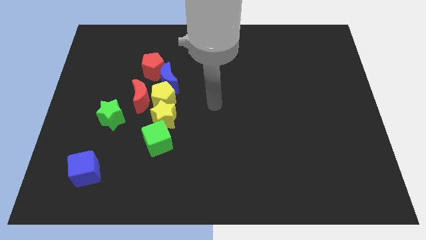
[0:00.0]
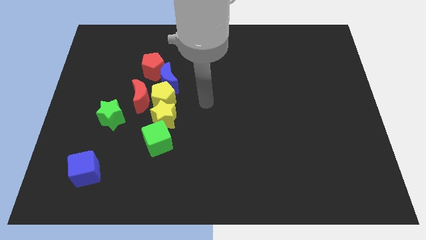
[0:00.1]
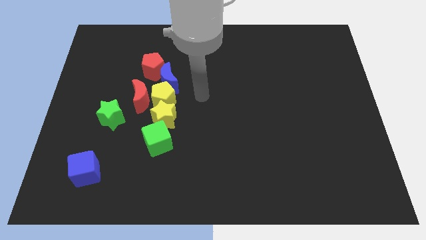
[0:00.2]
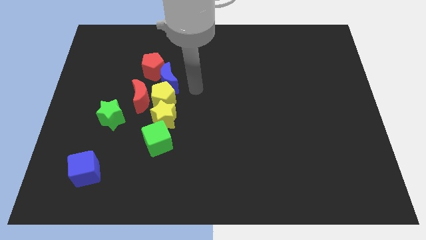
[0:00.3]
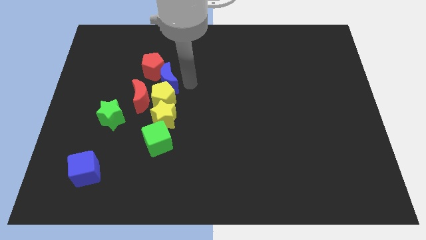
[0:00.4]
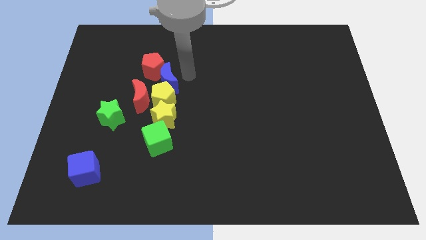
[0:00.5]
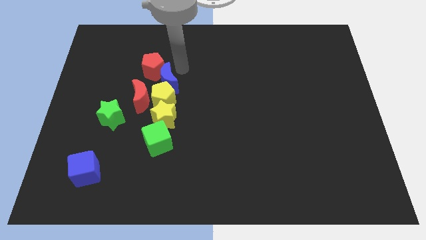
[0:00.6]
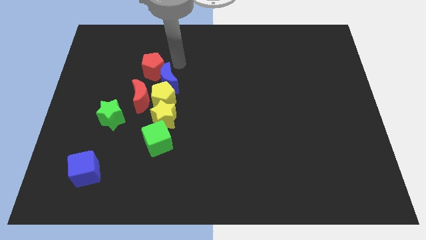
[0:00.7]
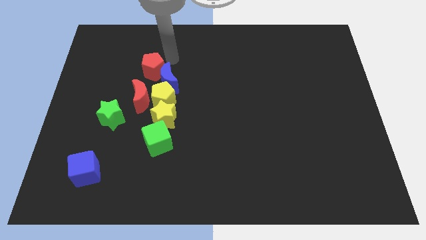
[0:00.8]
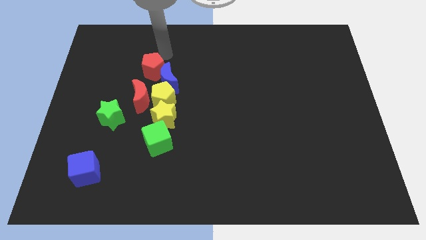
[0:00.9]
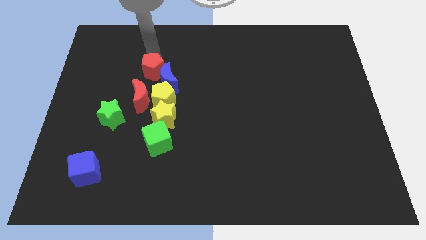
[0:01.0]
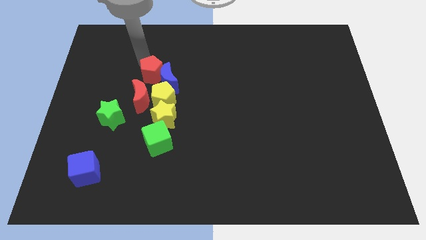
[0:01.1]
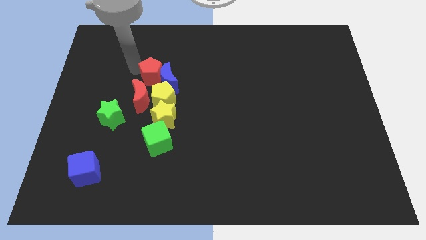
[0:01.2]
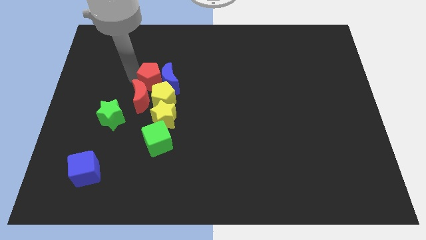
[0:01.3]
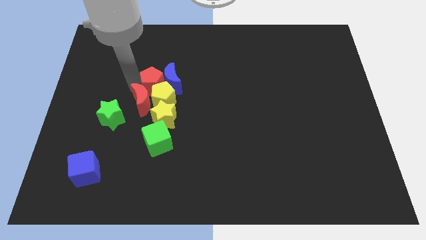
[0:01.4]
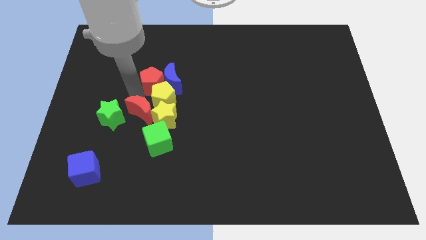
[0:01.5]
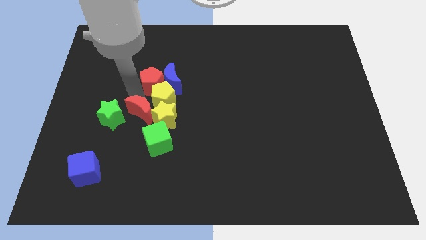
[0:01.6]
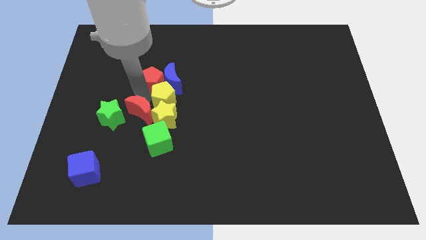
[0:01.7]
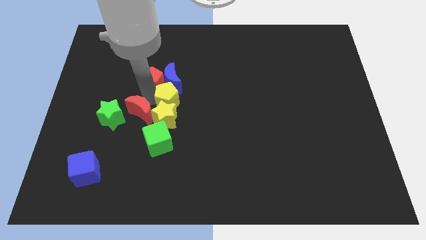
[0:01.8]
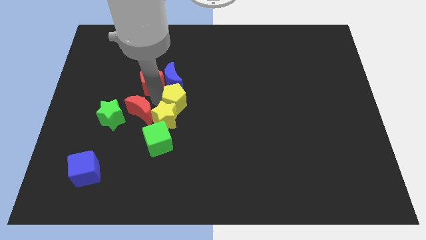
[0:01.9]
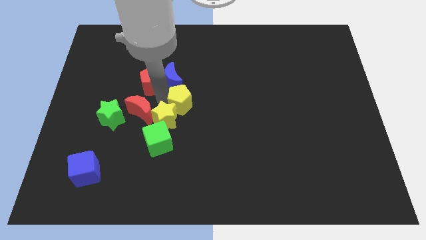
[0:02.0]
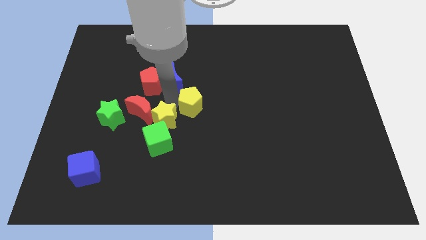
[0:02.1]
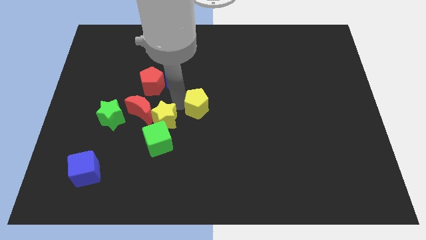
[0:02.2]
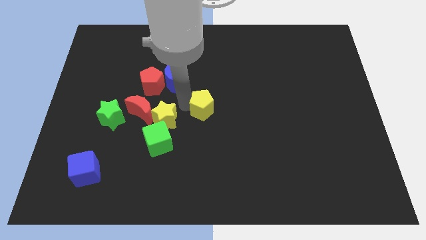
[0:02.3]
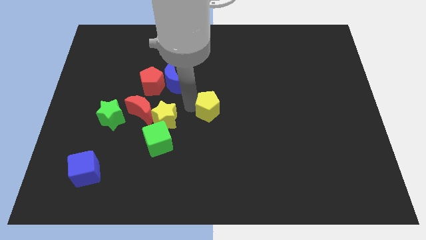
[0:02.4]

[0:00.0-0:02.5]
move the yellow pentagon away from the red moon, blue moon, and yellow star

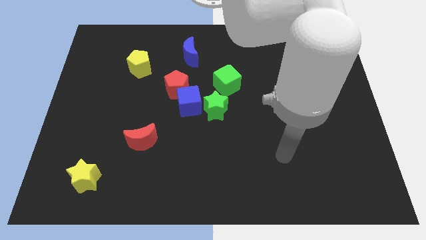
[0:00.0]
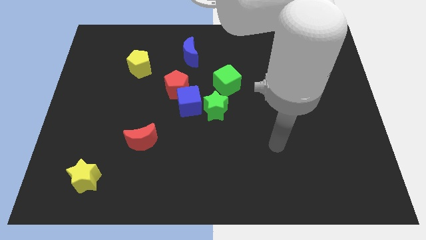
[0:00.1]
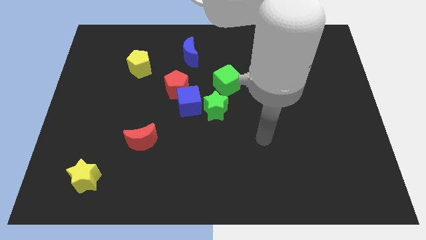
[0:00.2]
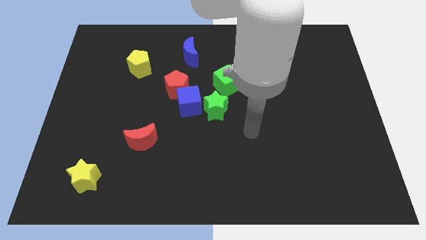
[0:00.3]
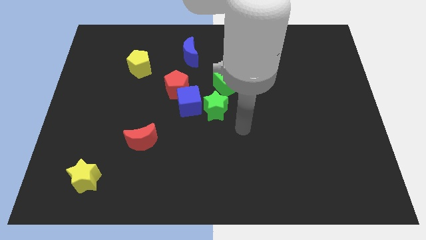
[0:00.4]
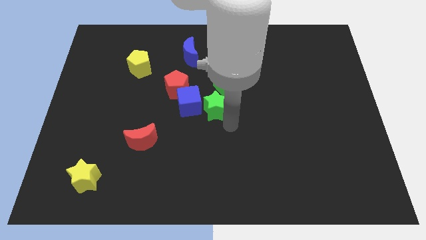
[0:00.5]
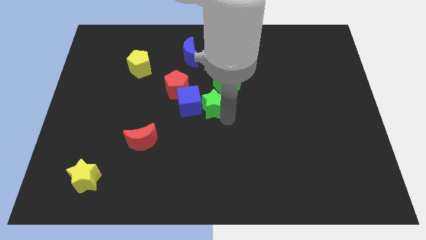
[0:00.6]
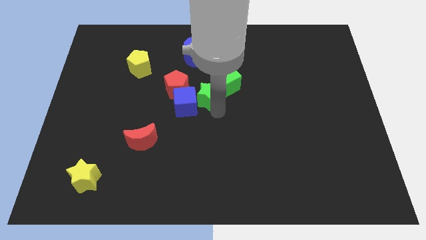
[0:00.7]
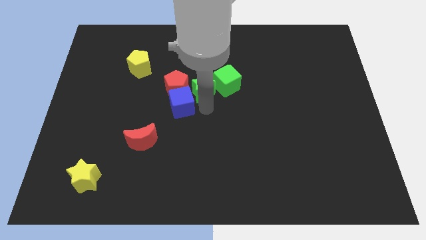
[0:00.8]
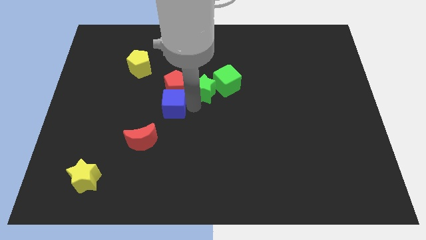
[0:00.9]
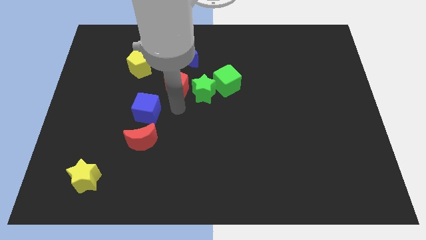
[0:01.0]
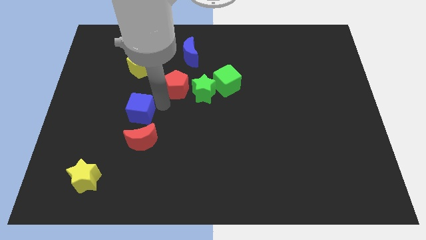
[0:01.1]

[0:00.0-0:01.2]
pull the red pentagon apart from the blue cube

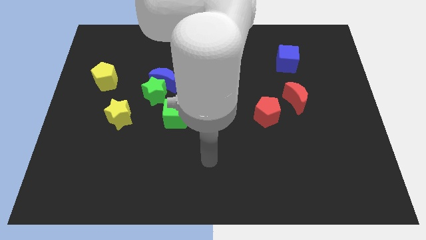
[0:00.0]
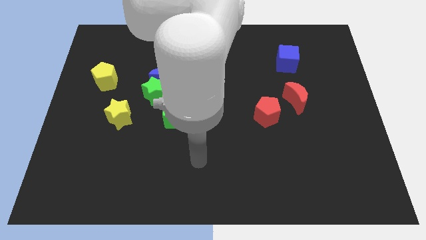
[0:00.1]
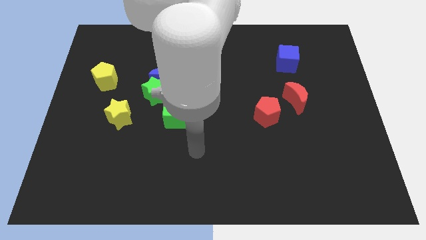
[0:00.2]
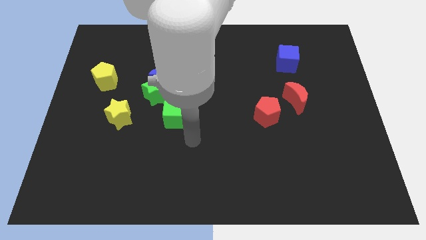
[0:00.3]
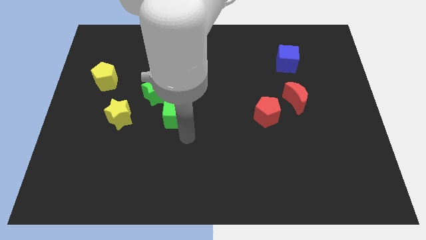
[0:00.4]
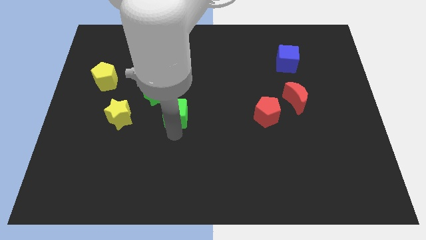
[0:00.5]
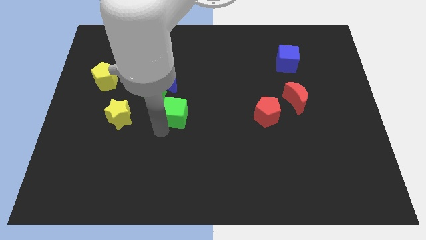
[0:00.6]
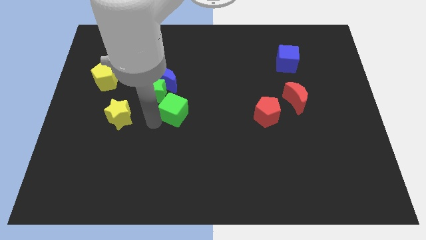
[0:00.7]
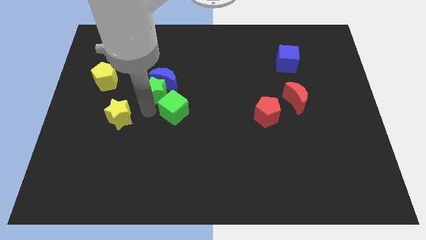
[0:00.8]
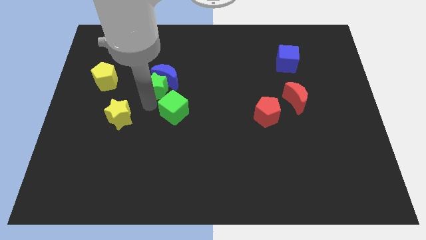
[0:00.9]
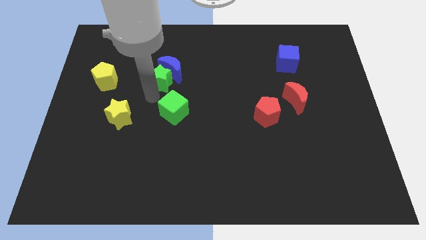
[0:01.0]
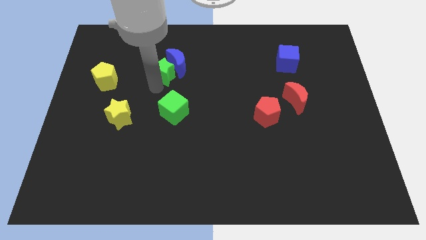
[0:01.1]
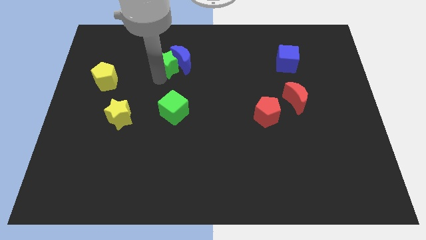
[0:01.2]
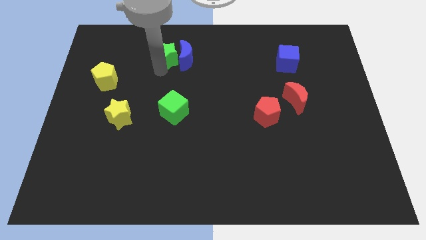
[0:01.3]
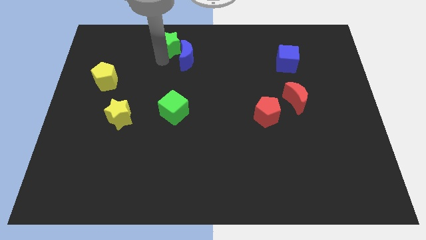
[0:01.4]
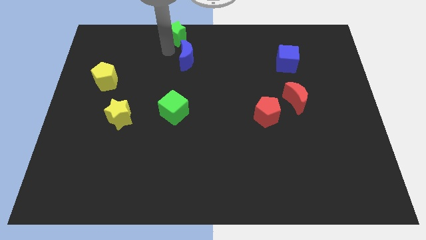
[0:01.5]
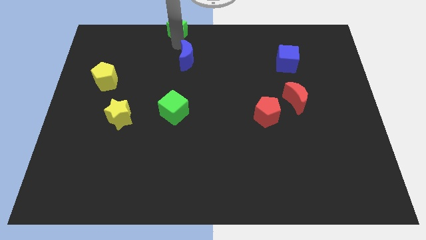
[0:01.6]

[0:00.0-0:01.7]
move the blue moon away from the green star

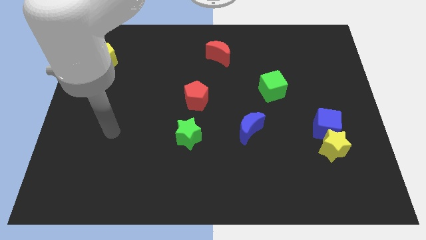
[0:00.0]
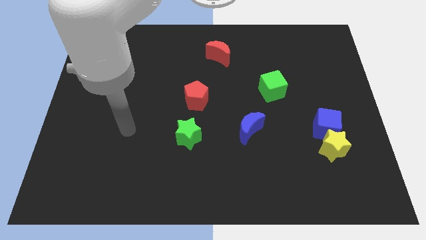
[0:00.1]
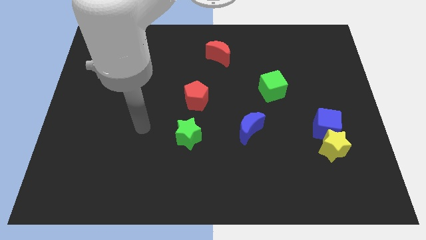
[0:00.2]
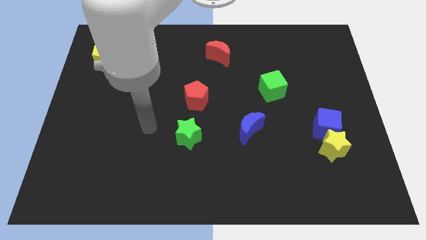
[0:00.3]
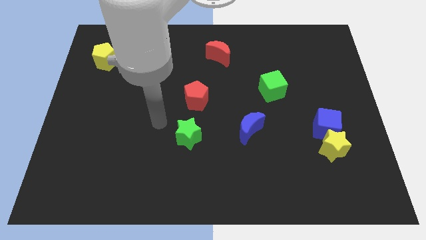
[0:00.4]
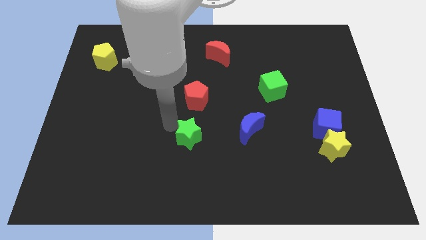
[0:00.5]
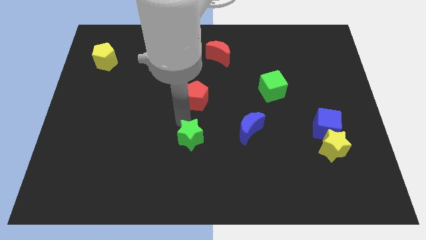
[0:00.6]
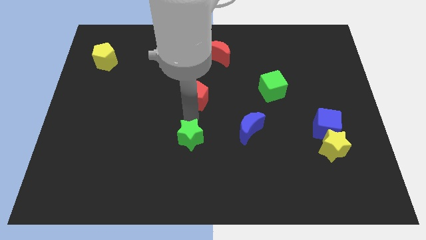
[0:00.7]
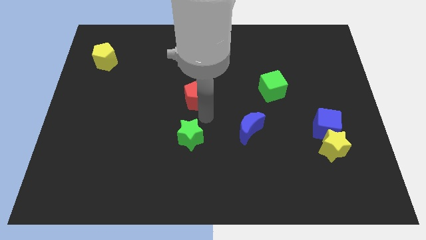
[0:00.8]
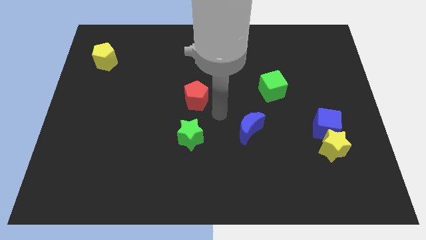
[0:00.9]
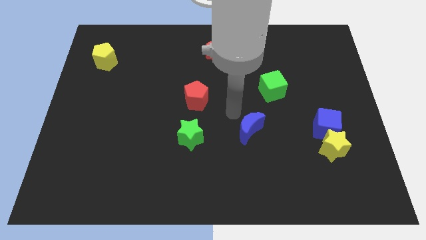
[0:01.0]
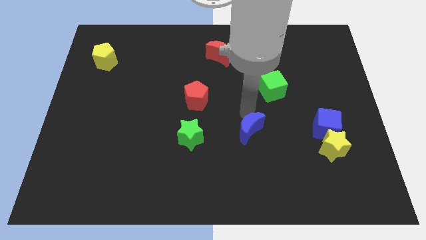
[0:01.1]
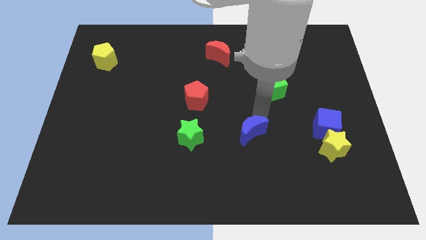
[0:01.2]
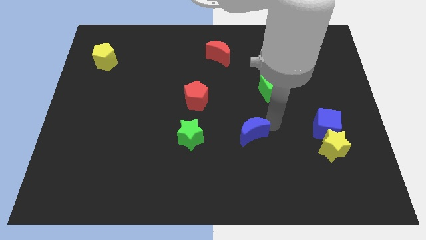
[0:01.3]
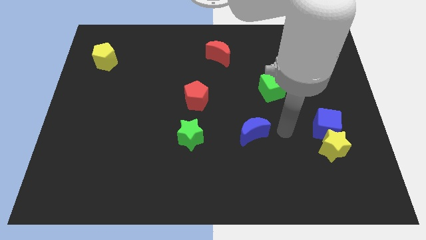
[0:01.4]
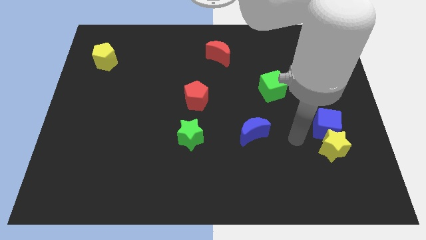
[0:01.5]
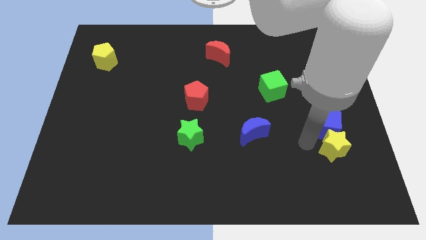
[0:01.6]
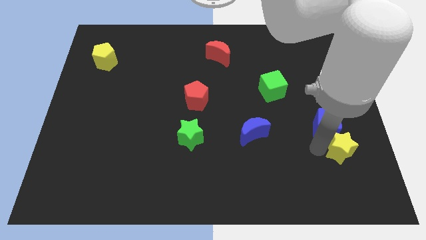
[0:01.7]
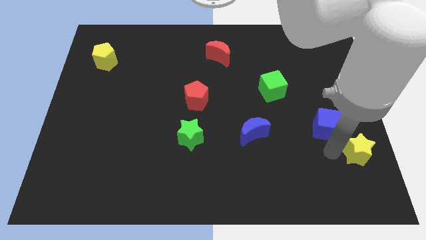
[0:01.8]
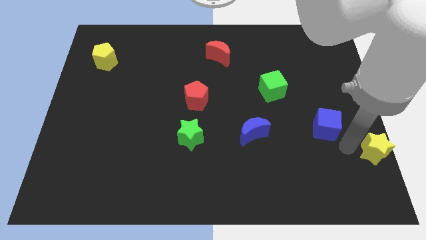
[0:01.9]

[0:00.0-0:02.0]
move the blue cube away from the yellow star

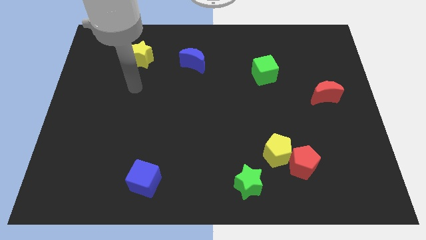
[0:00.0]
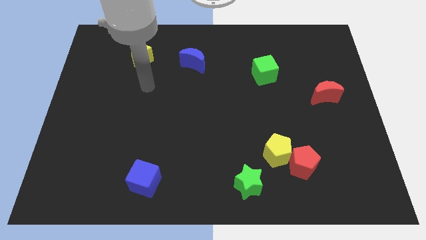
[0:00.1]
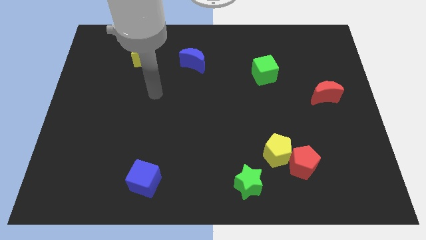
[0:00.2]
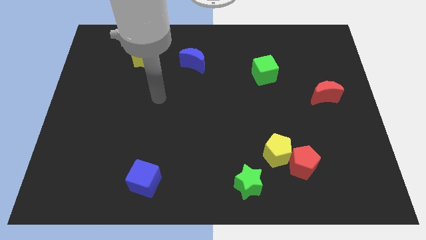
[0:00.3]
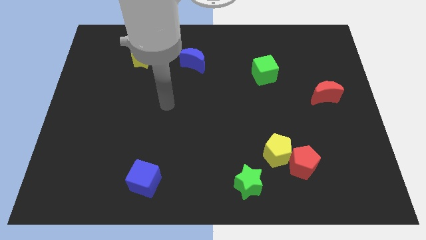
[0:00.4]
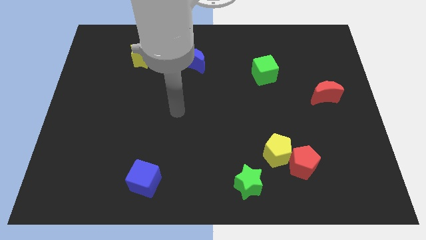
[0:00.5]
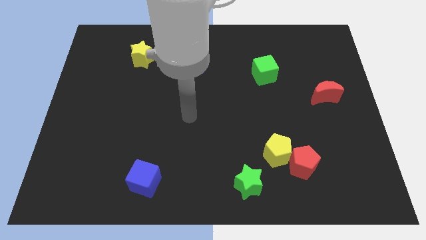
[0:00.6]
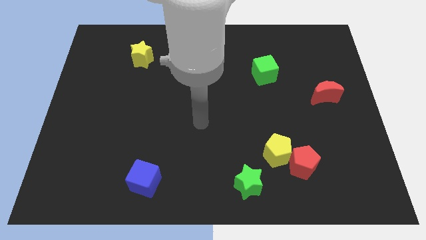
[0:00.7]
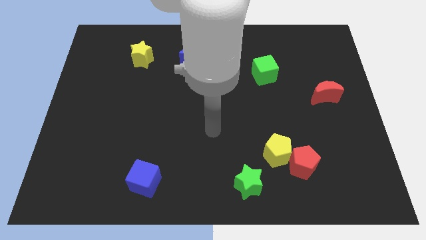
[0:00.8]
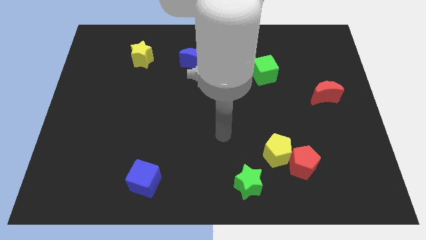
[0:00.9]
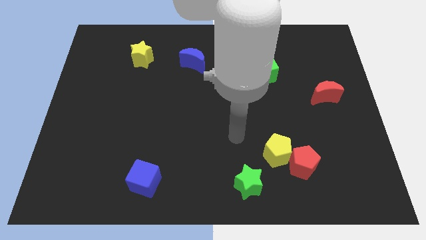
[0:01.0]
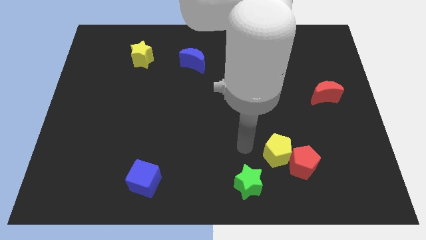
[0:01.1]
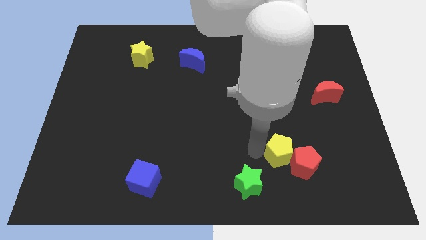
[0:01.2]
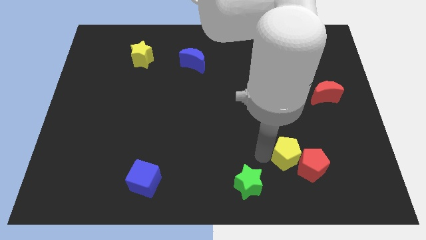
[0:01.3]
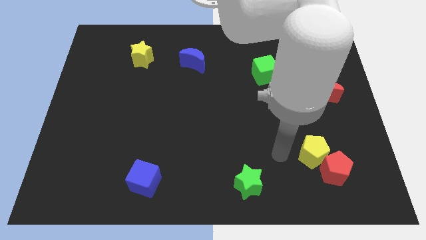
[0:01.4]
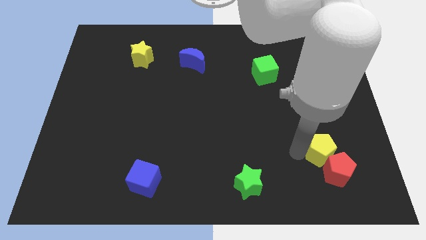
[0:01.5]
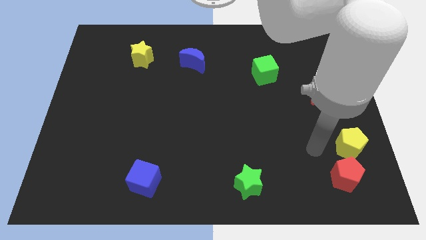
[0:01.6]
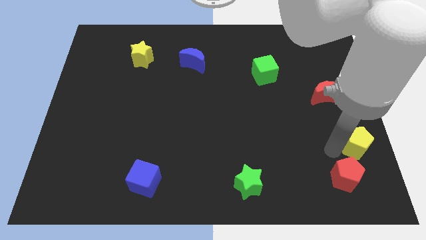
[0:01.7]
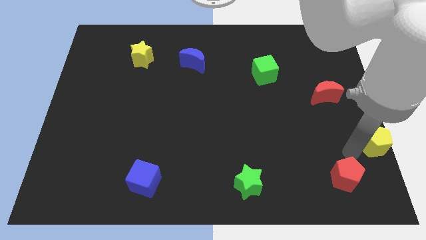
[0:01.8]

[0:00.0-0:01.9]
separate the red pentagon from the yellow pentagon
